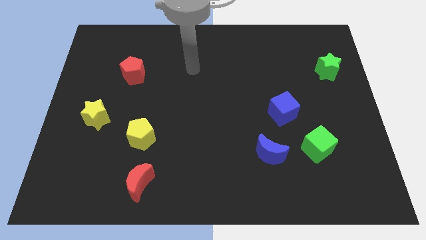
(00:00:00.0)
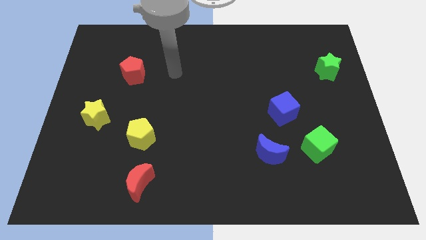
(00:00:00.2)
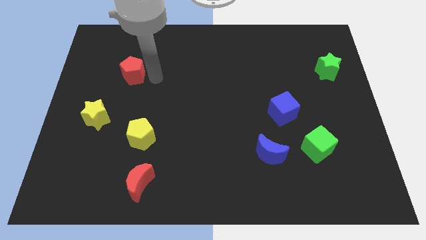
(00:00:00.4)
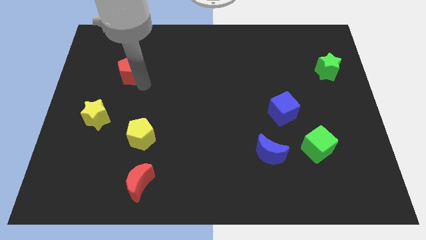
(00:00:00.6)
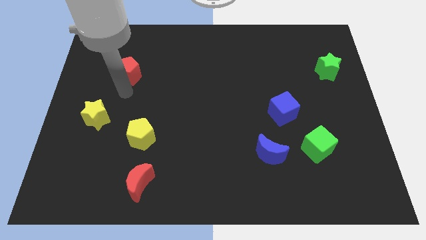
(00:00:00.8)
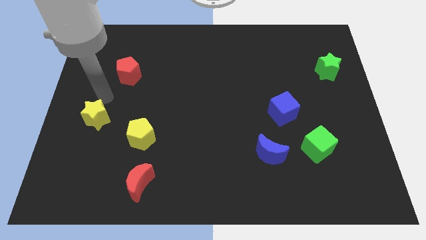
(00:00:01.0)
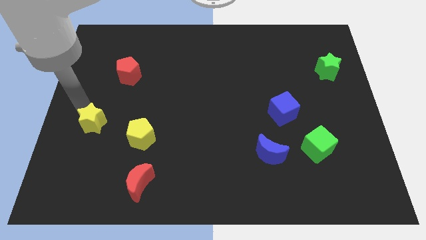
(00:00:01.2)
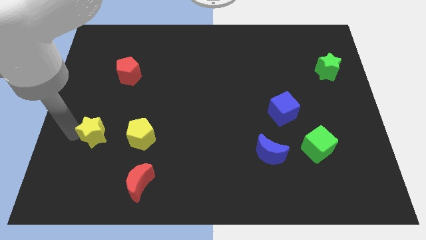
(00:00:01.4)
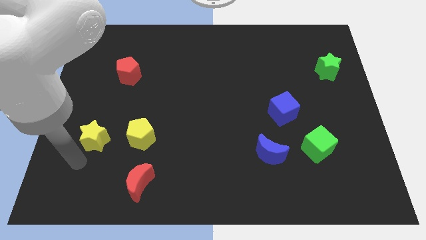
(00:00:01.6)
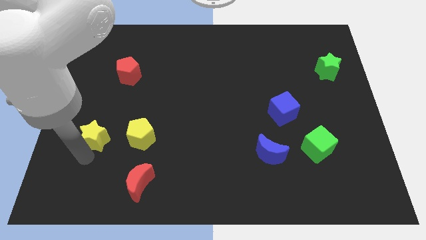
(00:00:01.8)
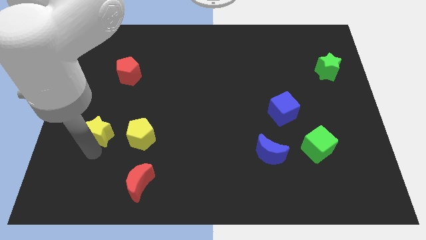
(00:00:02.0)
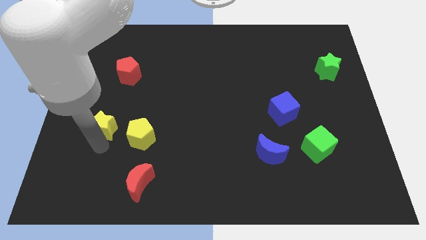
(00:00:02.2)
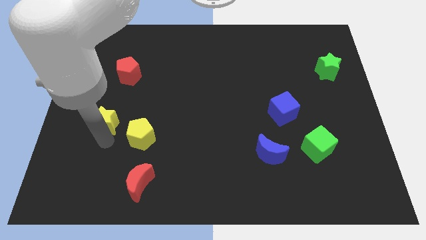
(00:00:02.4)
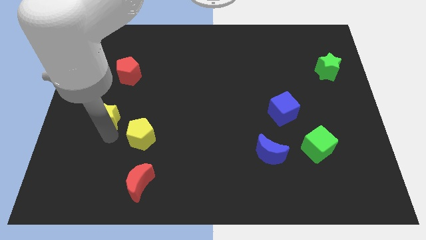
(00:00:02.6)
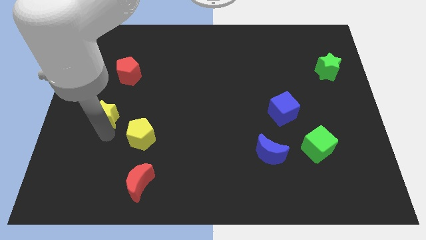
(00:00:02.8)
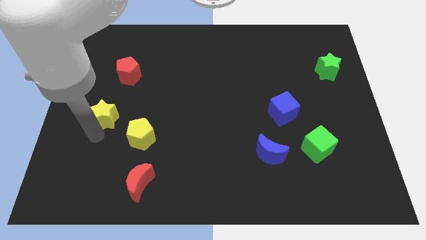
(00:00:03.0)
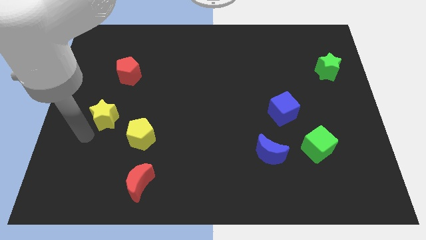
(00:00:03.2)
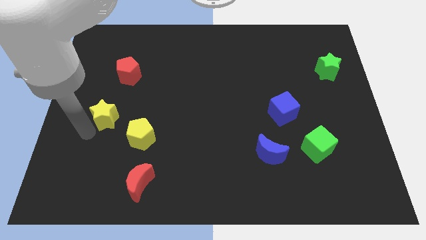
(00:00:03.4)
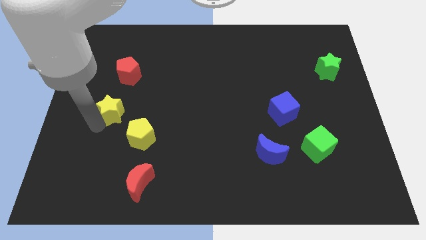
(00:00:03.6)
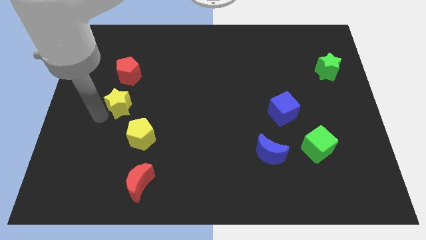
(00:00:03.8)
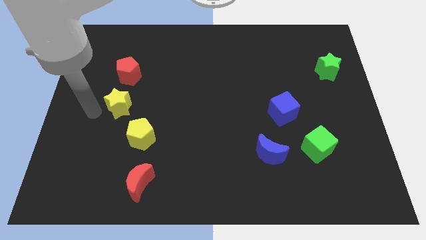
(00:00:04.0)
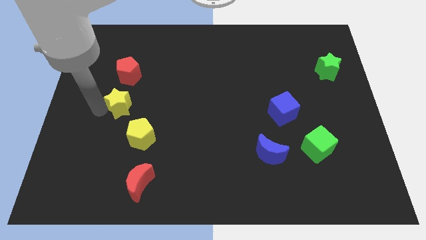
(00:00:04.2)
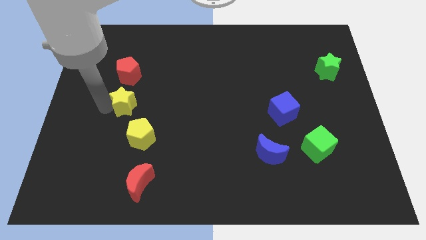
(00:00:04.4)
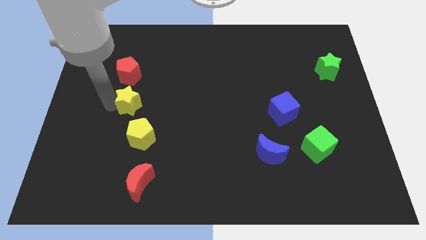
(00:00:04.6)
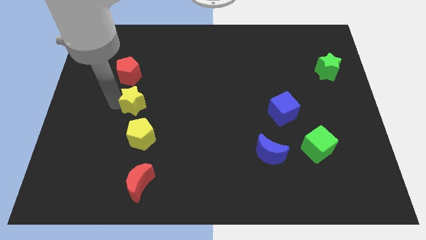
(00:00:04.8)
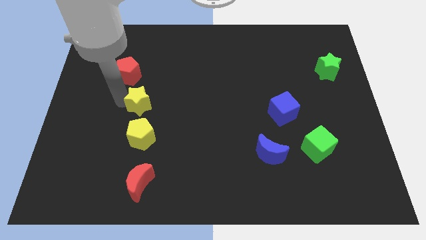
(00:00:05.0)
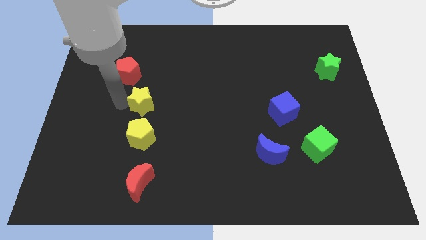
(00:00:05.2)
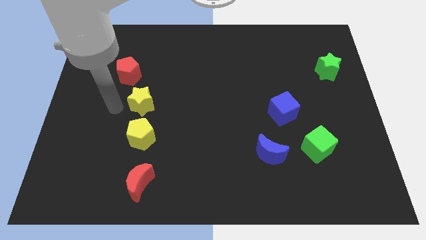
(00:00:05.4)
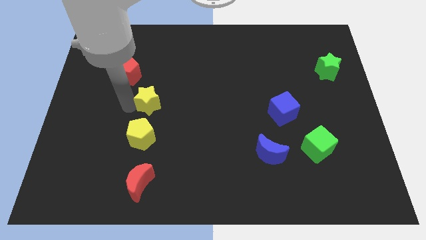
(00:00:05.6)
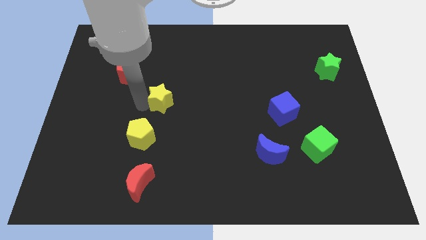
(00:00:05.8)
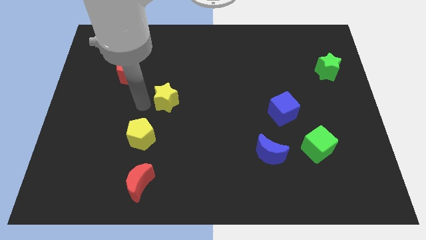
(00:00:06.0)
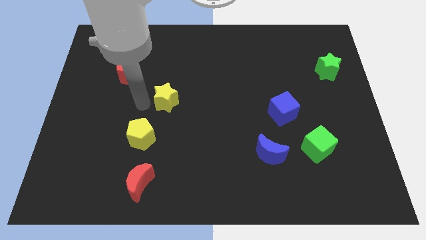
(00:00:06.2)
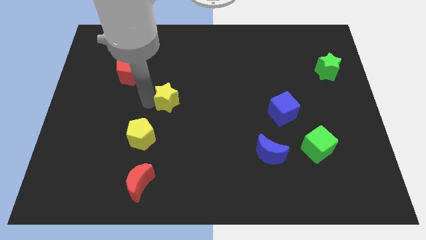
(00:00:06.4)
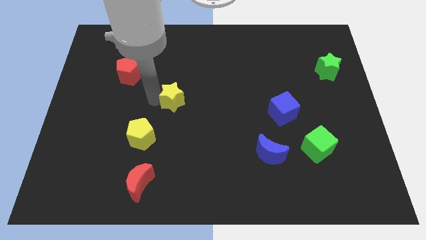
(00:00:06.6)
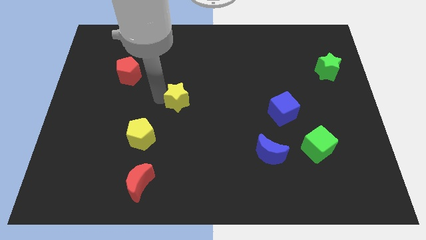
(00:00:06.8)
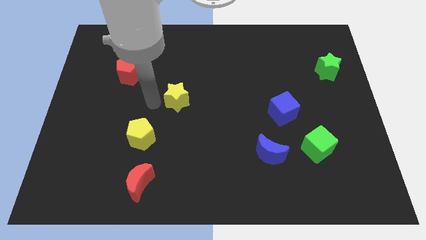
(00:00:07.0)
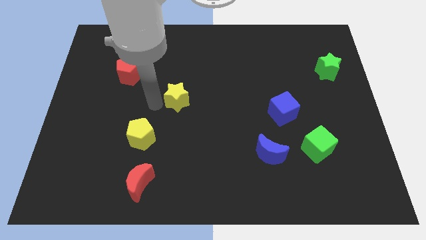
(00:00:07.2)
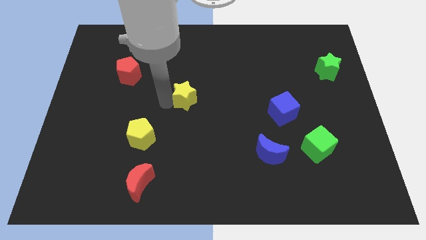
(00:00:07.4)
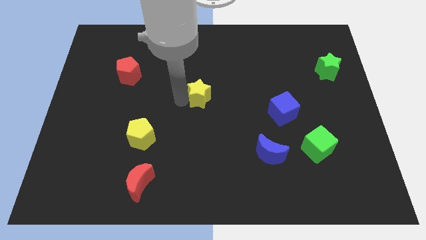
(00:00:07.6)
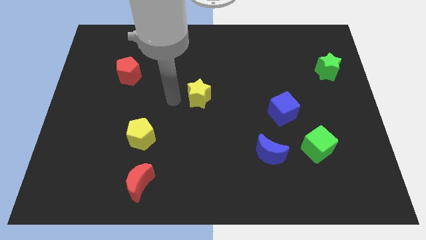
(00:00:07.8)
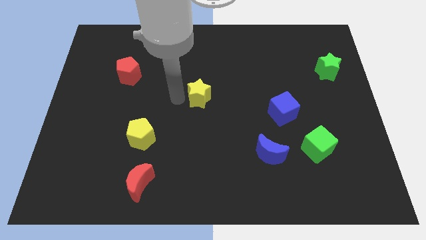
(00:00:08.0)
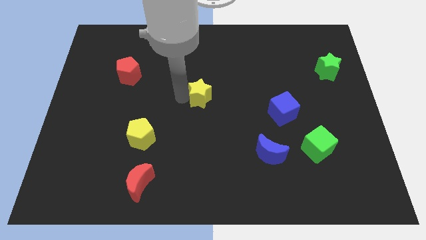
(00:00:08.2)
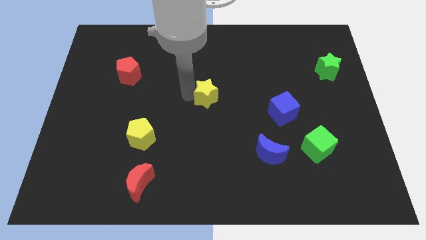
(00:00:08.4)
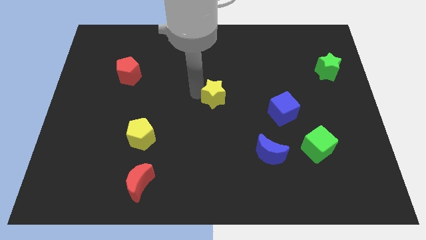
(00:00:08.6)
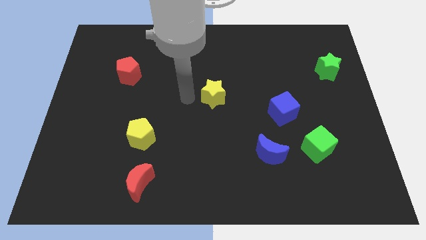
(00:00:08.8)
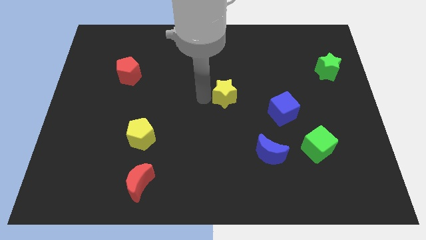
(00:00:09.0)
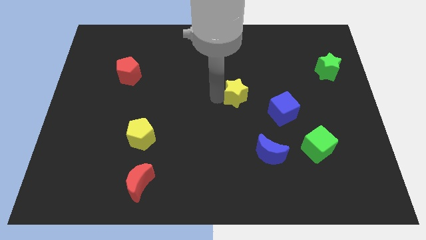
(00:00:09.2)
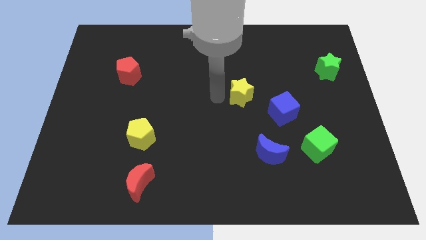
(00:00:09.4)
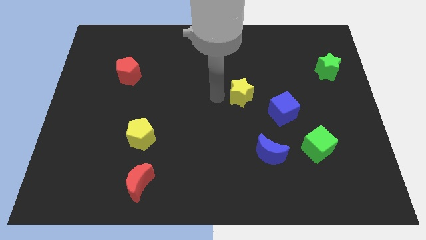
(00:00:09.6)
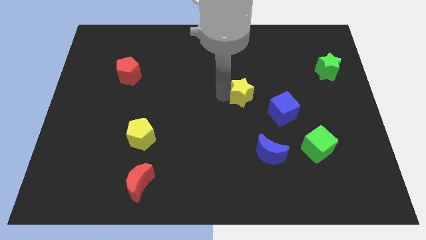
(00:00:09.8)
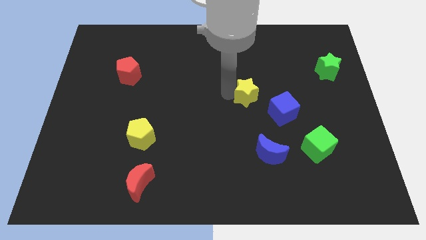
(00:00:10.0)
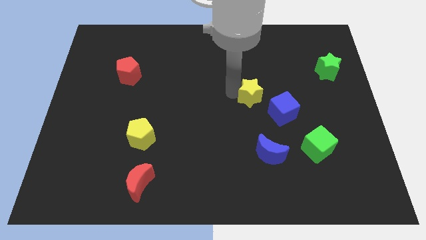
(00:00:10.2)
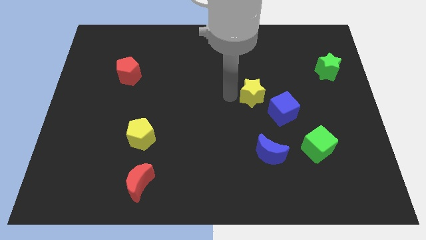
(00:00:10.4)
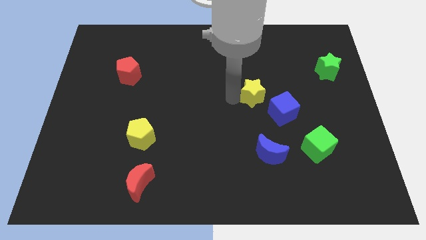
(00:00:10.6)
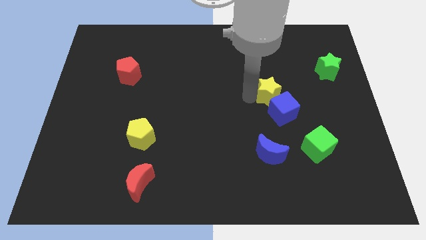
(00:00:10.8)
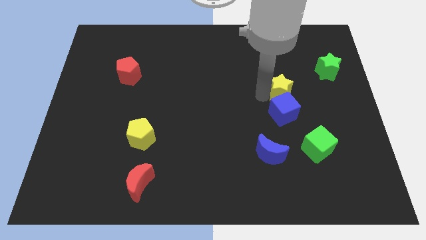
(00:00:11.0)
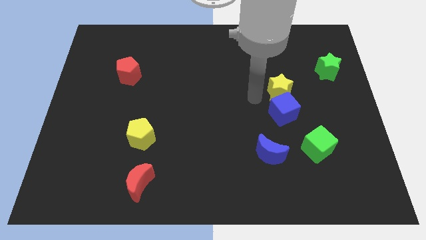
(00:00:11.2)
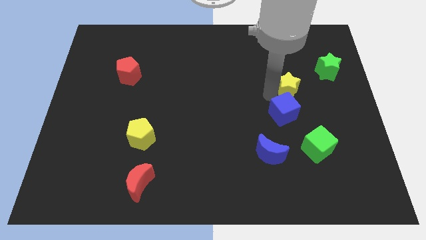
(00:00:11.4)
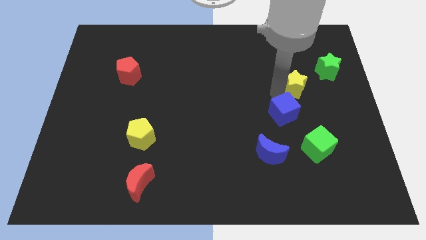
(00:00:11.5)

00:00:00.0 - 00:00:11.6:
put the yellow star to the bottom left of the green star

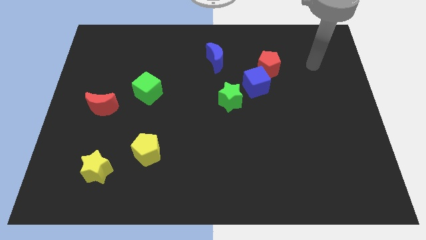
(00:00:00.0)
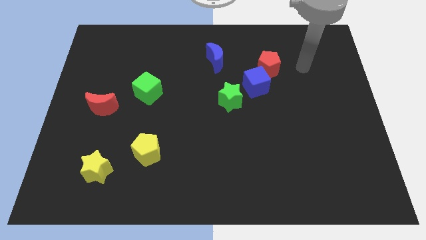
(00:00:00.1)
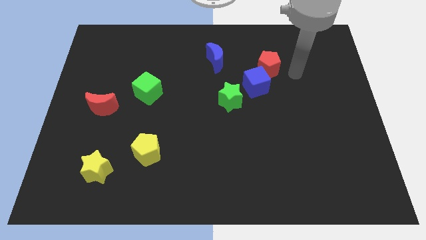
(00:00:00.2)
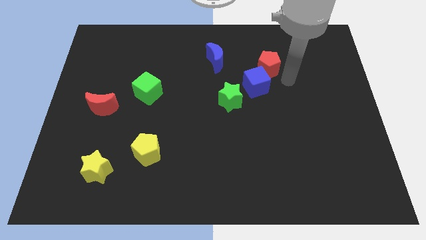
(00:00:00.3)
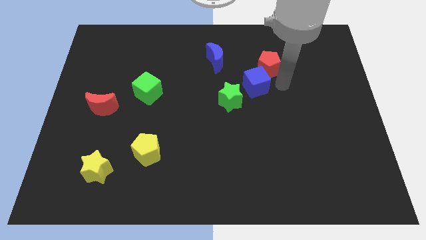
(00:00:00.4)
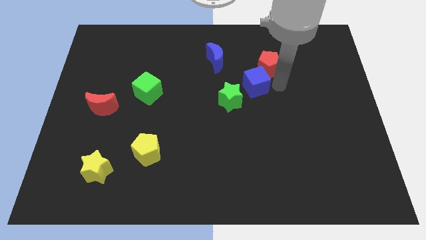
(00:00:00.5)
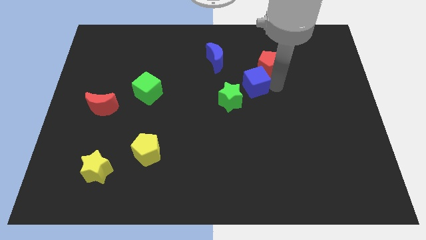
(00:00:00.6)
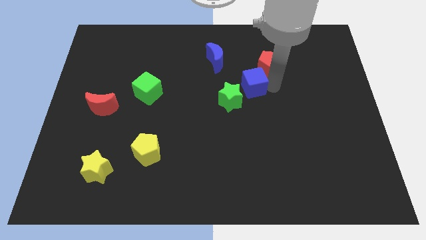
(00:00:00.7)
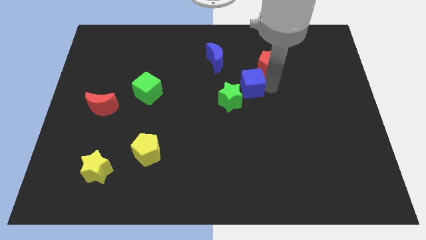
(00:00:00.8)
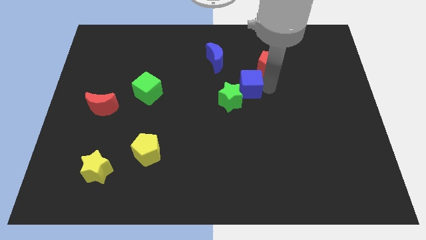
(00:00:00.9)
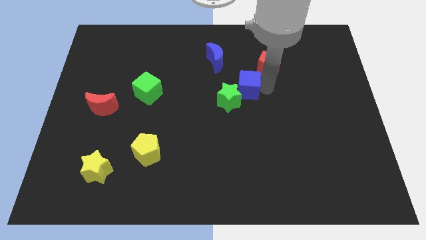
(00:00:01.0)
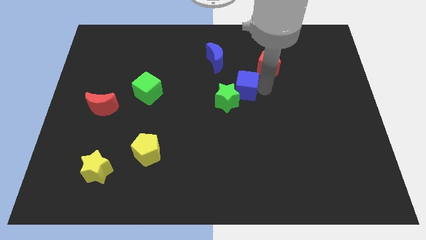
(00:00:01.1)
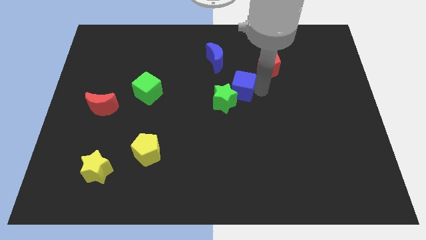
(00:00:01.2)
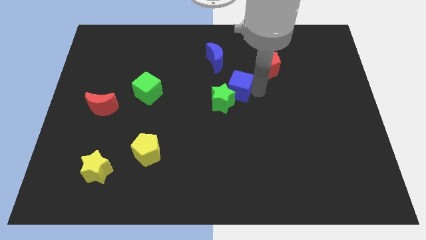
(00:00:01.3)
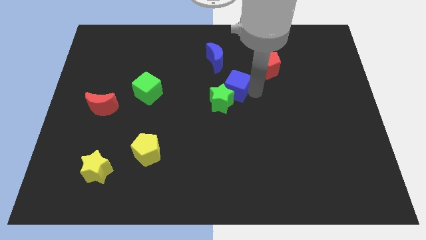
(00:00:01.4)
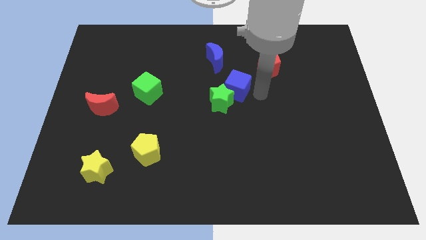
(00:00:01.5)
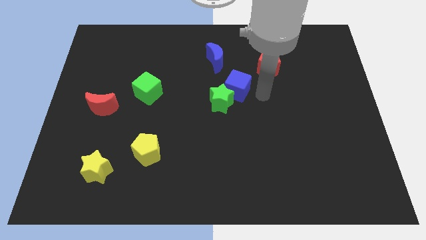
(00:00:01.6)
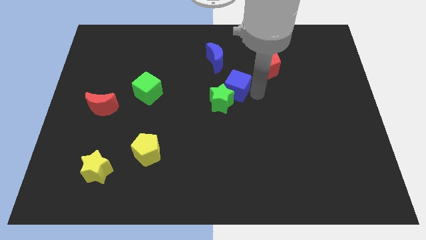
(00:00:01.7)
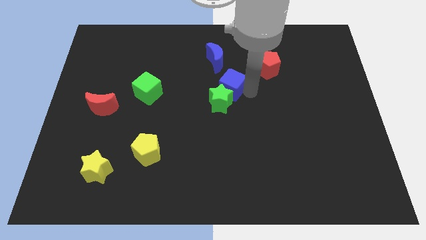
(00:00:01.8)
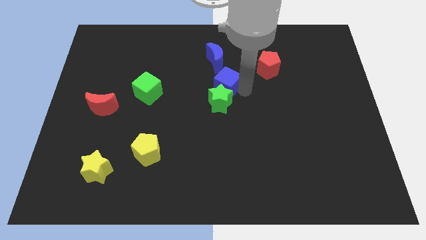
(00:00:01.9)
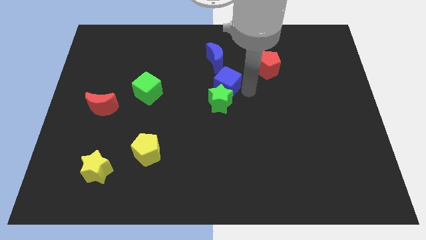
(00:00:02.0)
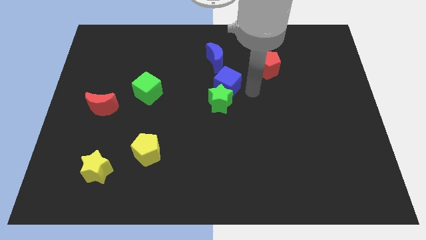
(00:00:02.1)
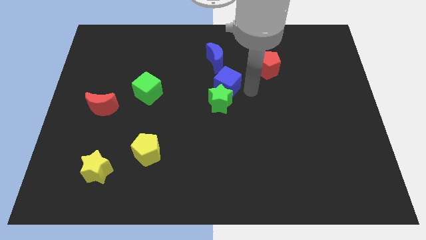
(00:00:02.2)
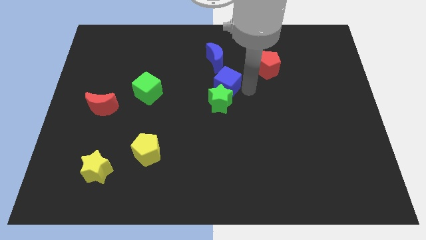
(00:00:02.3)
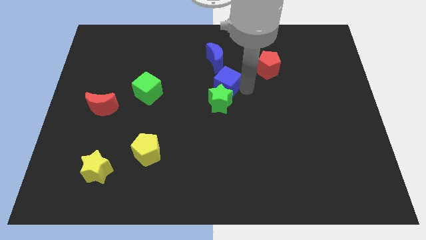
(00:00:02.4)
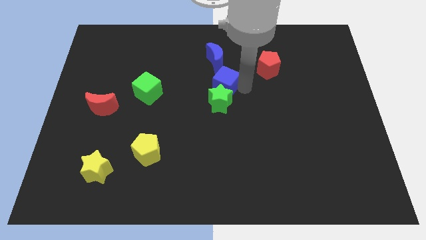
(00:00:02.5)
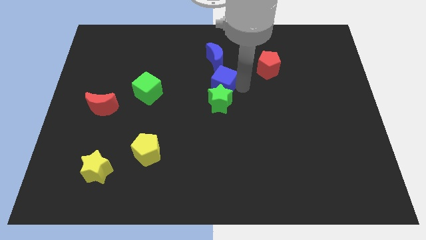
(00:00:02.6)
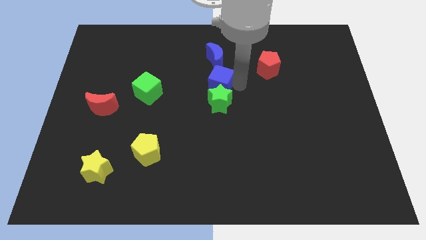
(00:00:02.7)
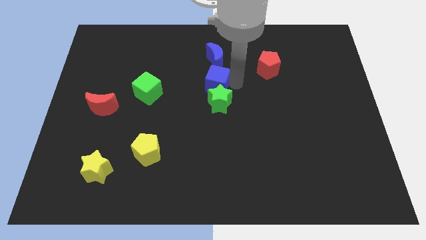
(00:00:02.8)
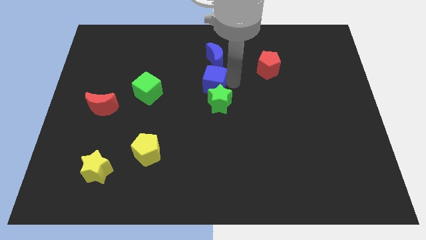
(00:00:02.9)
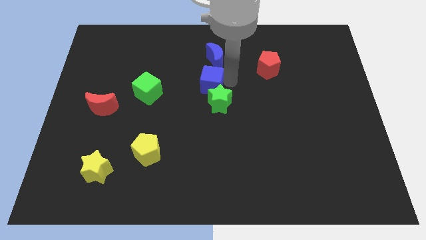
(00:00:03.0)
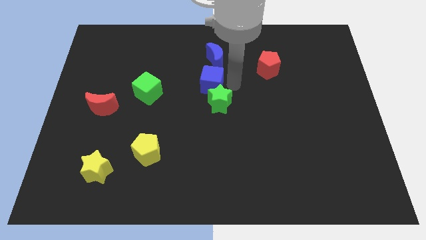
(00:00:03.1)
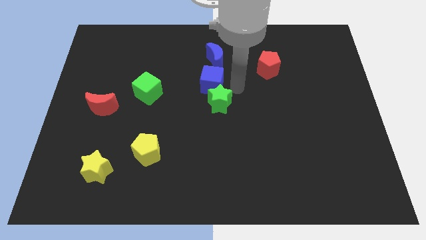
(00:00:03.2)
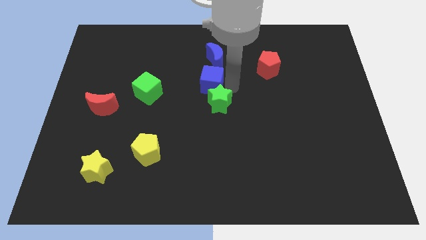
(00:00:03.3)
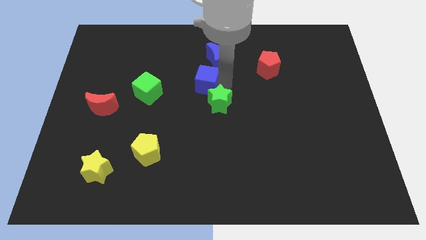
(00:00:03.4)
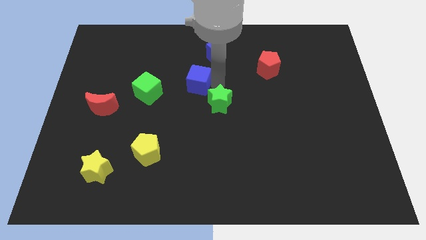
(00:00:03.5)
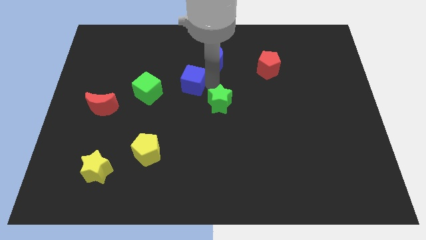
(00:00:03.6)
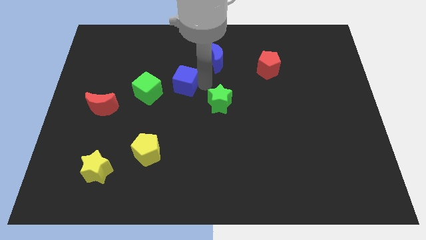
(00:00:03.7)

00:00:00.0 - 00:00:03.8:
push the blue cube to the top right side of the green cube
